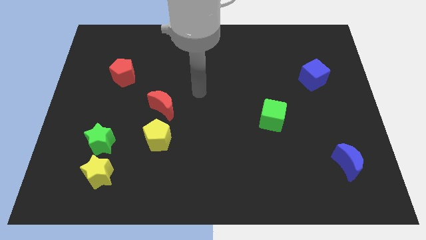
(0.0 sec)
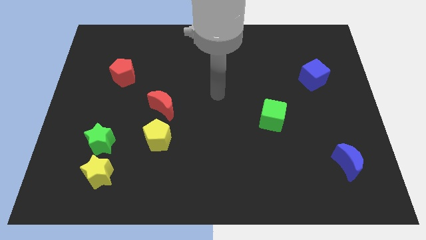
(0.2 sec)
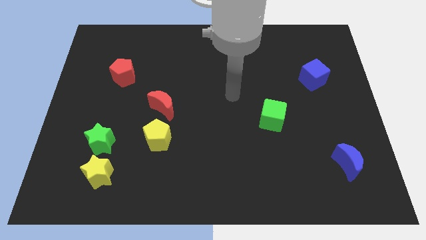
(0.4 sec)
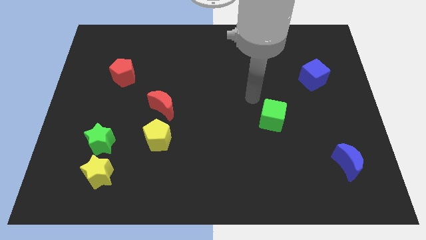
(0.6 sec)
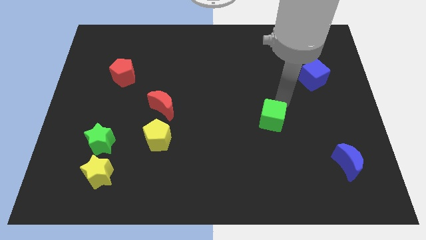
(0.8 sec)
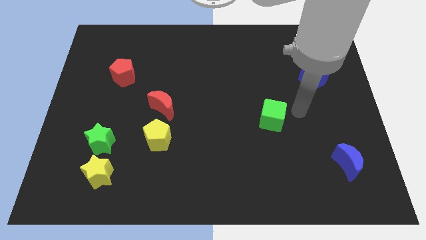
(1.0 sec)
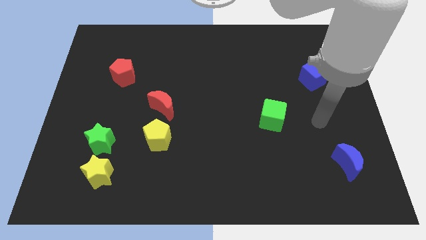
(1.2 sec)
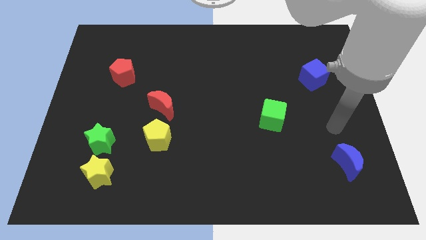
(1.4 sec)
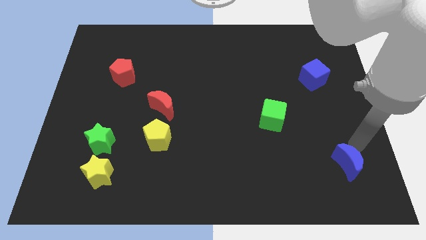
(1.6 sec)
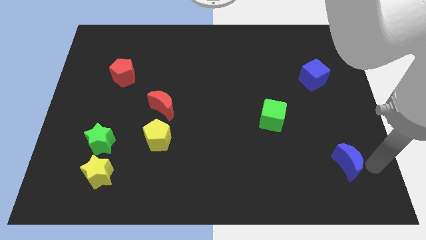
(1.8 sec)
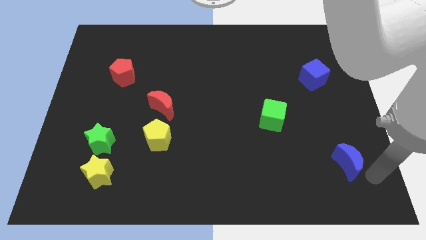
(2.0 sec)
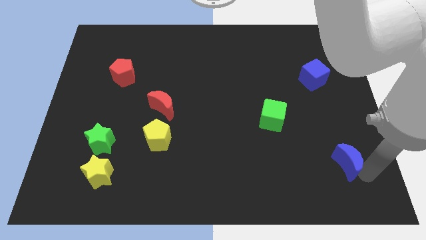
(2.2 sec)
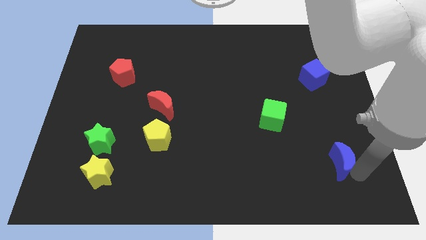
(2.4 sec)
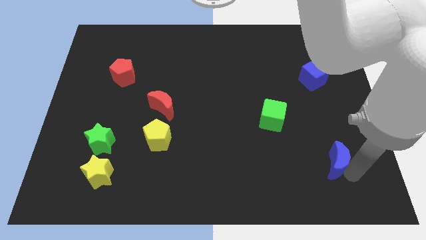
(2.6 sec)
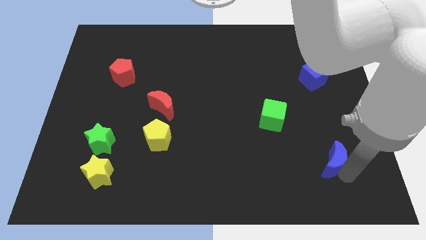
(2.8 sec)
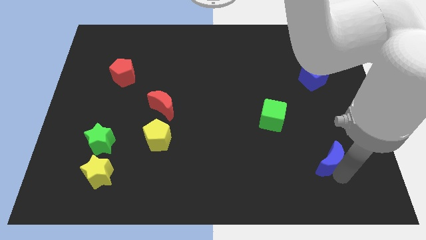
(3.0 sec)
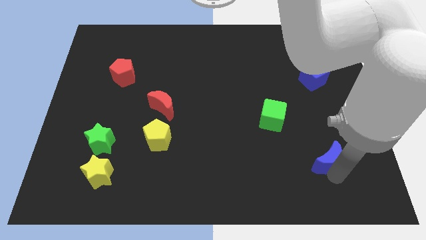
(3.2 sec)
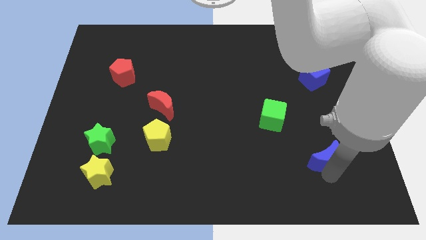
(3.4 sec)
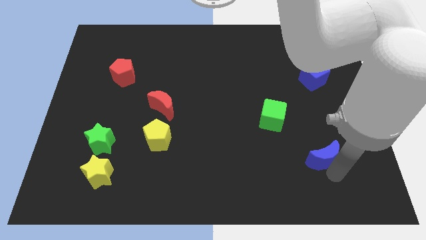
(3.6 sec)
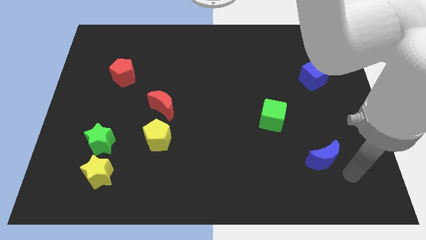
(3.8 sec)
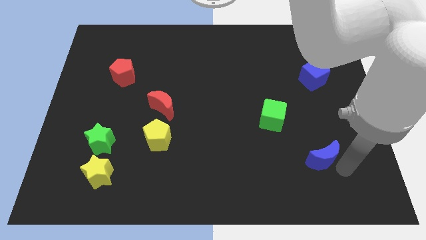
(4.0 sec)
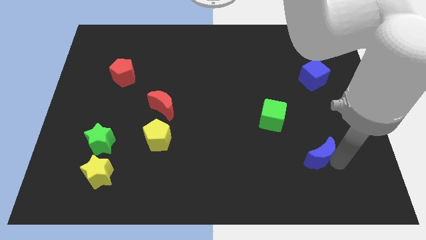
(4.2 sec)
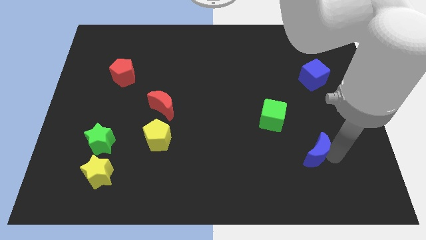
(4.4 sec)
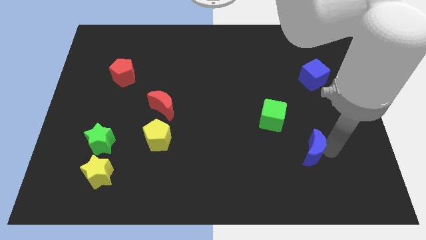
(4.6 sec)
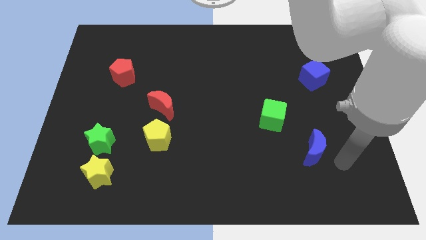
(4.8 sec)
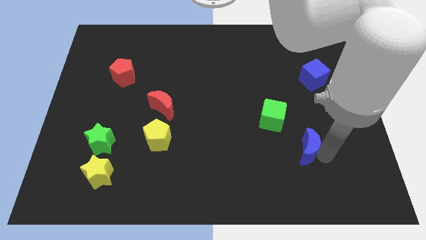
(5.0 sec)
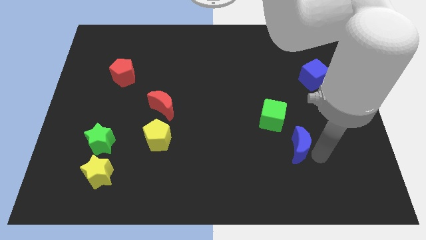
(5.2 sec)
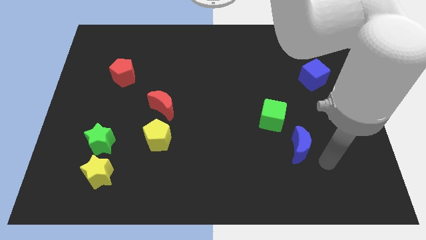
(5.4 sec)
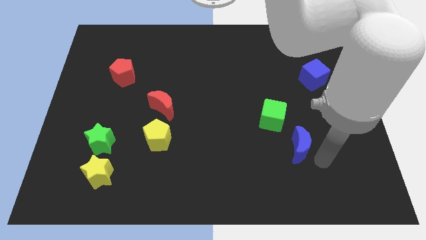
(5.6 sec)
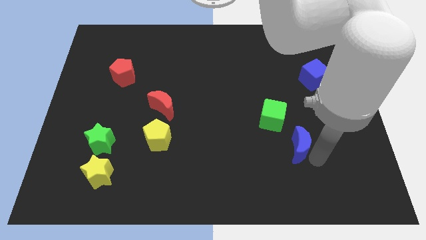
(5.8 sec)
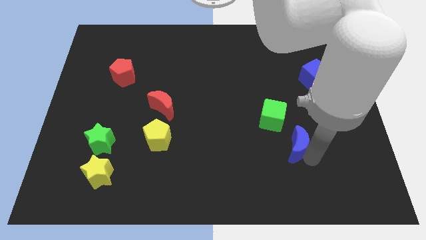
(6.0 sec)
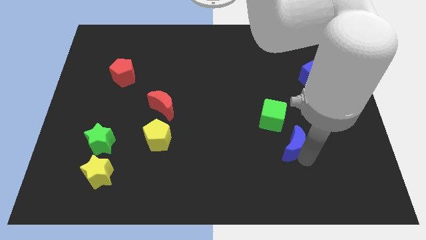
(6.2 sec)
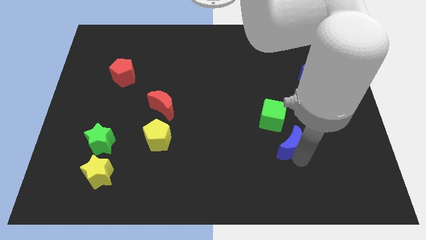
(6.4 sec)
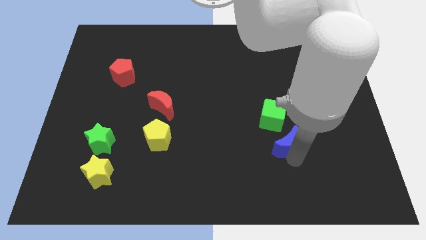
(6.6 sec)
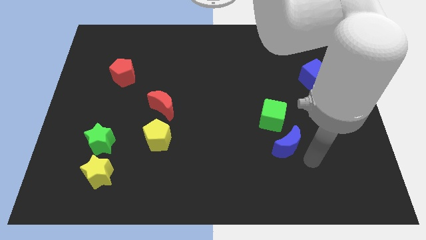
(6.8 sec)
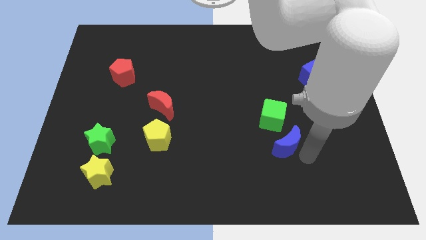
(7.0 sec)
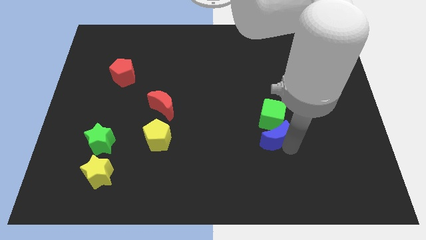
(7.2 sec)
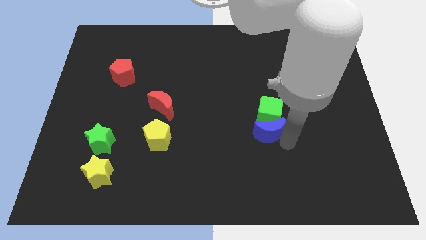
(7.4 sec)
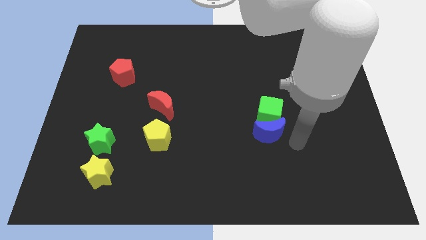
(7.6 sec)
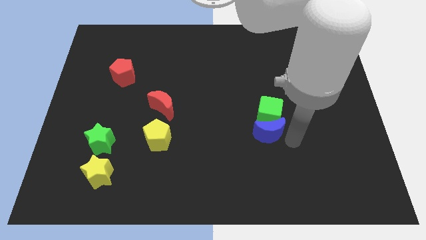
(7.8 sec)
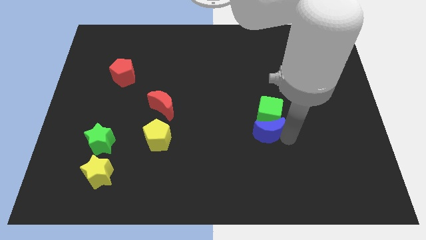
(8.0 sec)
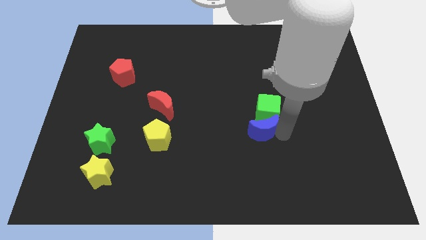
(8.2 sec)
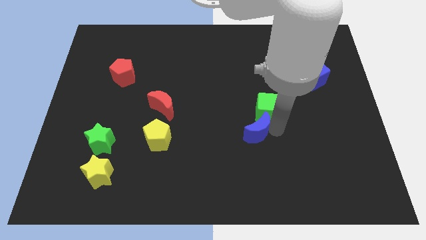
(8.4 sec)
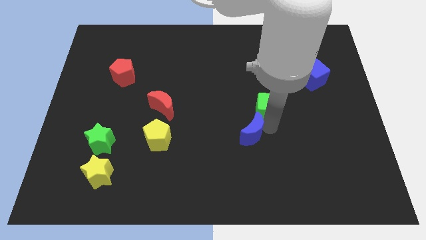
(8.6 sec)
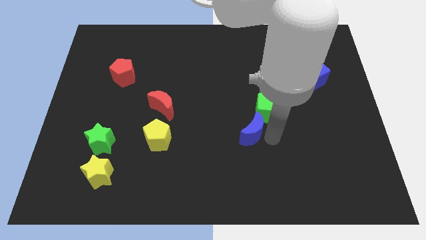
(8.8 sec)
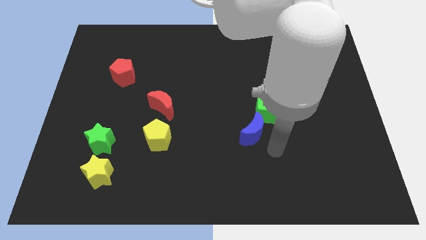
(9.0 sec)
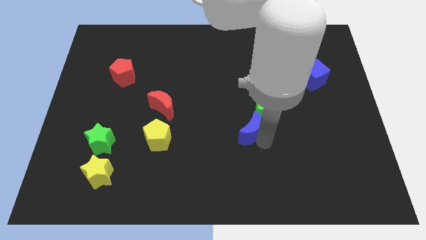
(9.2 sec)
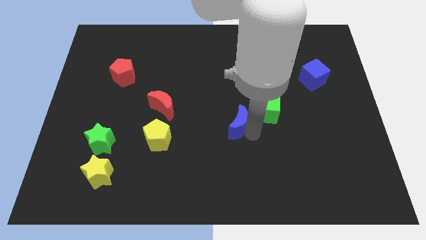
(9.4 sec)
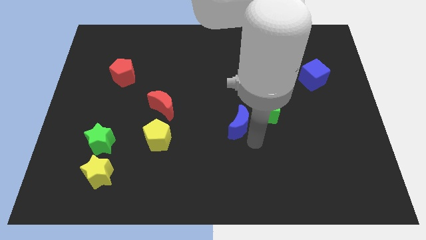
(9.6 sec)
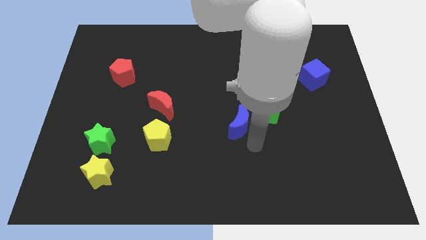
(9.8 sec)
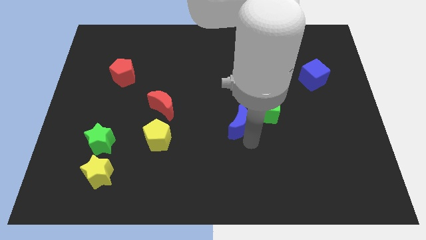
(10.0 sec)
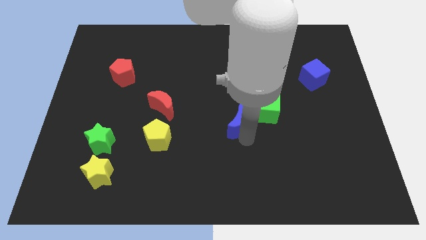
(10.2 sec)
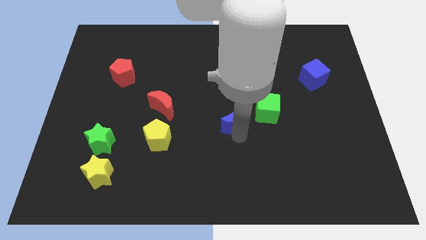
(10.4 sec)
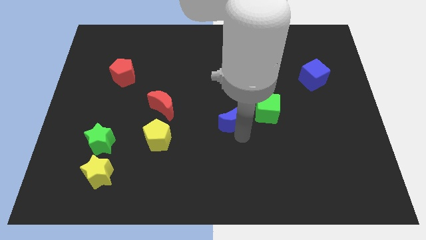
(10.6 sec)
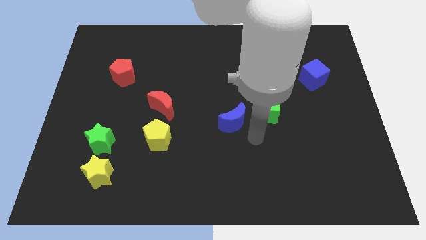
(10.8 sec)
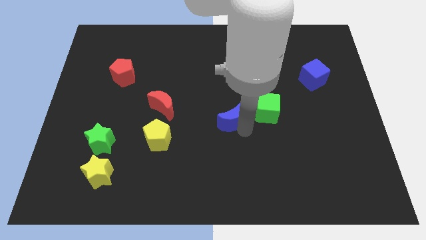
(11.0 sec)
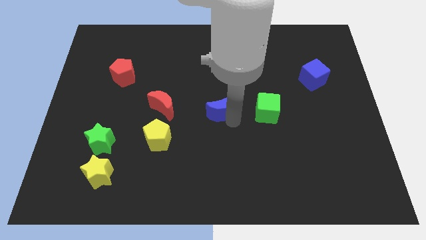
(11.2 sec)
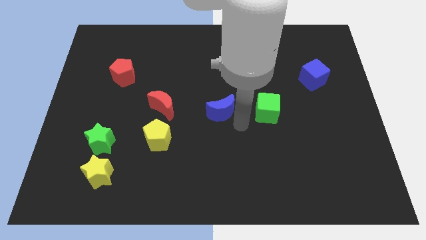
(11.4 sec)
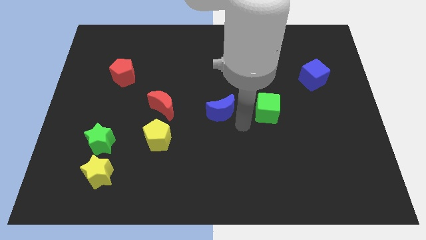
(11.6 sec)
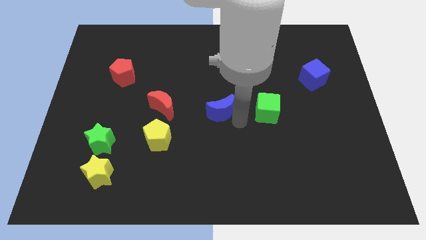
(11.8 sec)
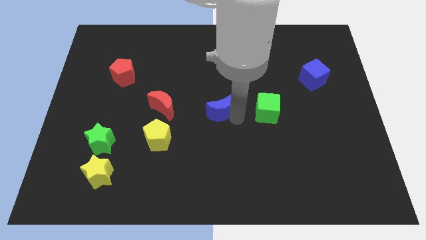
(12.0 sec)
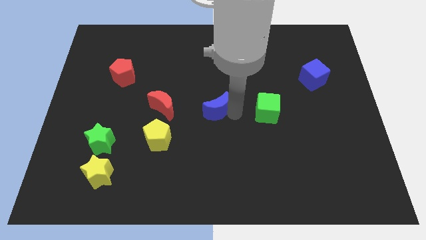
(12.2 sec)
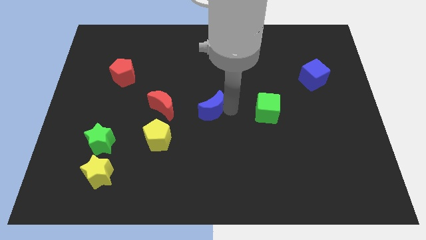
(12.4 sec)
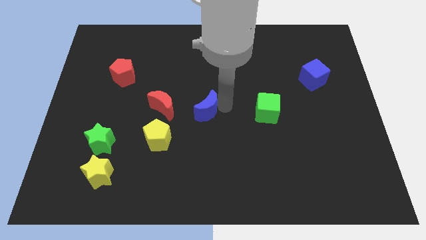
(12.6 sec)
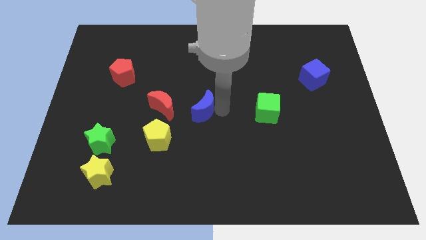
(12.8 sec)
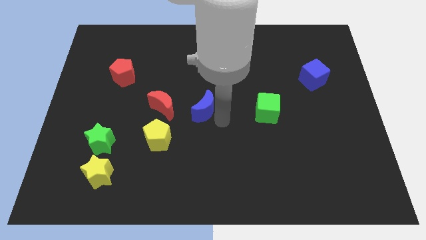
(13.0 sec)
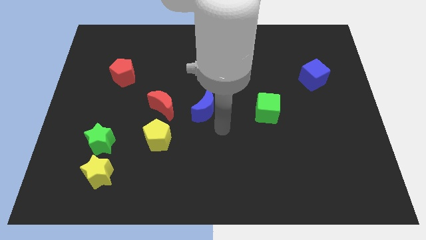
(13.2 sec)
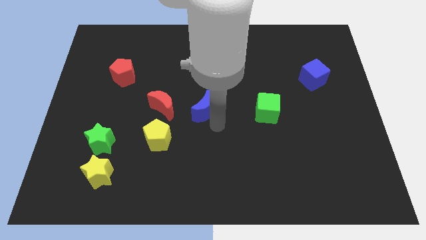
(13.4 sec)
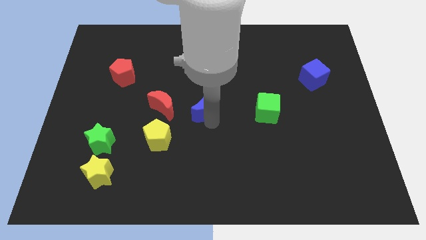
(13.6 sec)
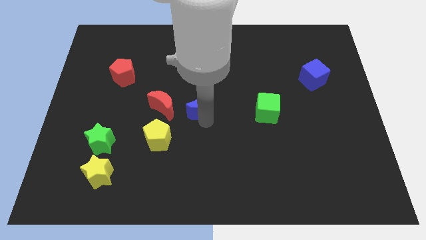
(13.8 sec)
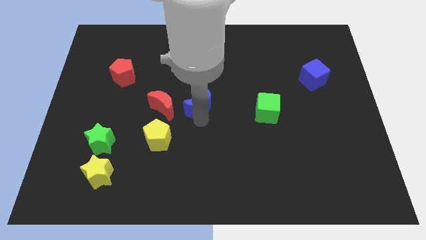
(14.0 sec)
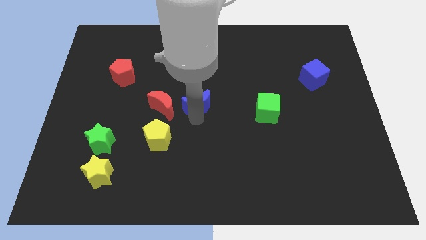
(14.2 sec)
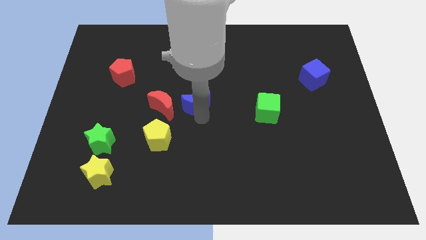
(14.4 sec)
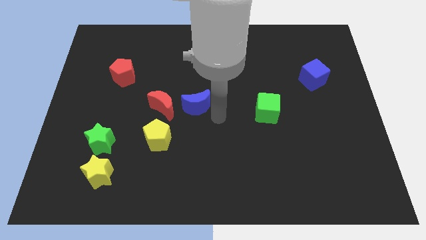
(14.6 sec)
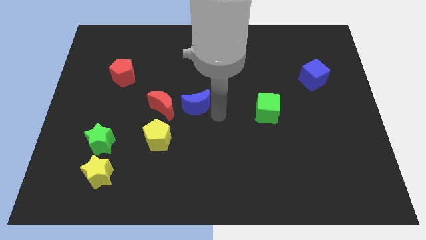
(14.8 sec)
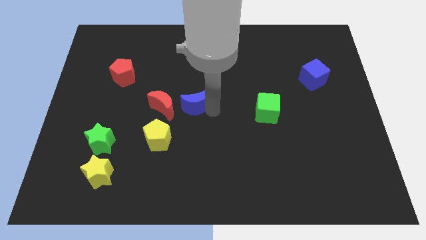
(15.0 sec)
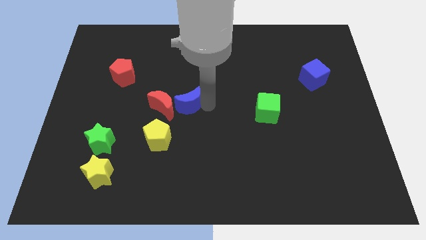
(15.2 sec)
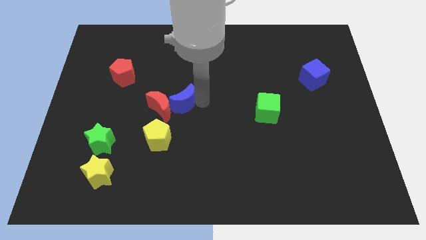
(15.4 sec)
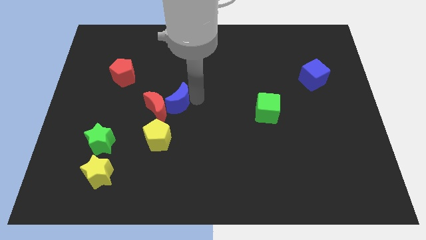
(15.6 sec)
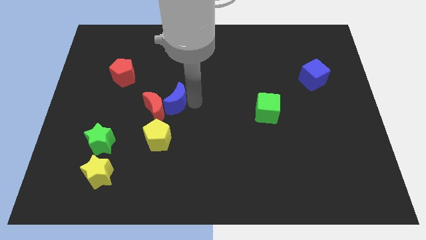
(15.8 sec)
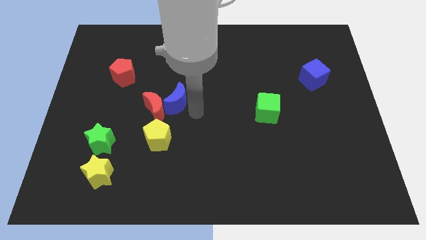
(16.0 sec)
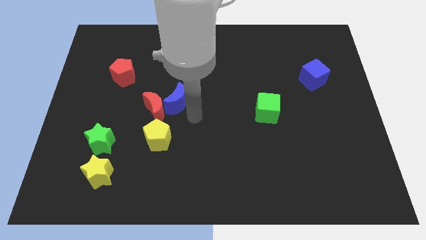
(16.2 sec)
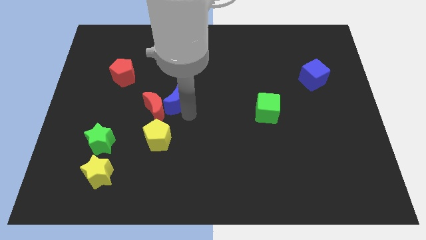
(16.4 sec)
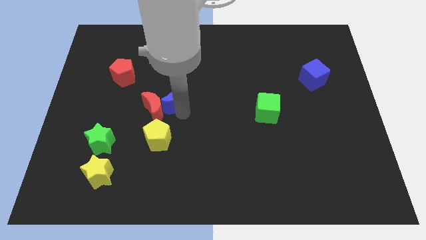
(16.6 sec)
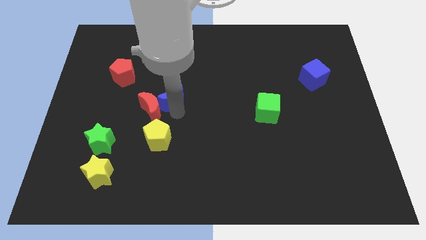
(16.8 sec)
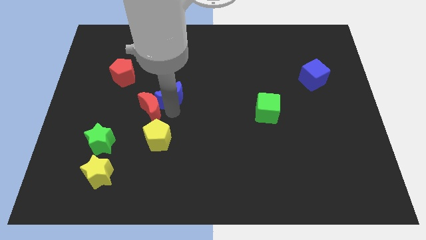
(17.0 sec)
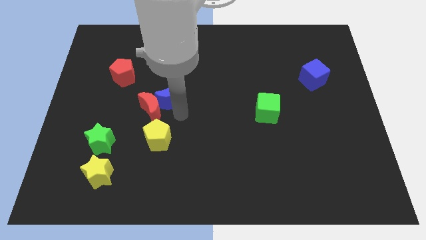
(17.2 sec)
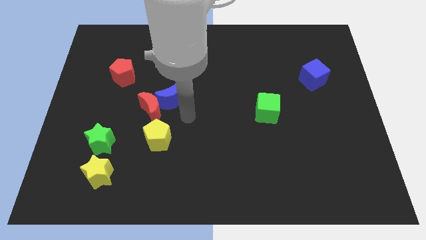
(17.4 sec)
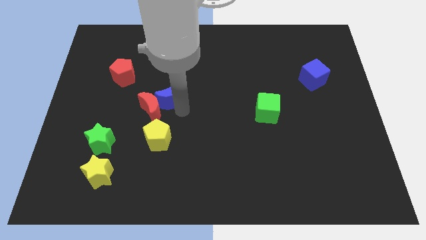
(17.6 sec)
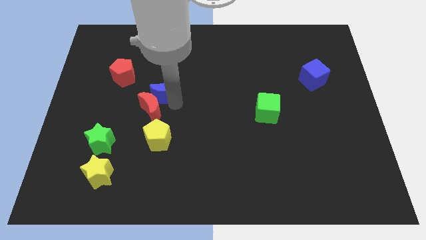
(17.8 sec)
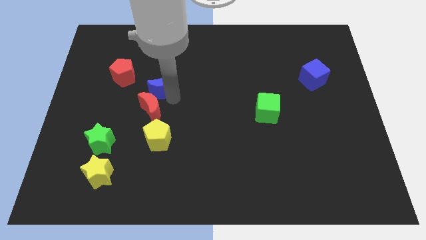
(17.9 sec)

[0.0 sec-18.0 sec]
put the blue moon diagonally down and to the right of the red pentagon
